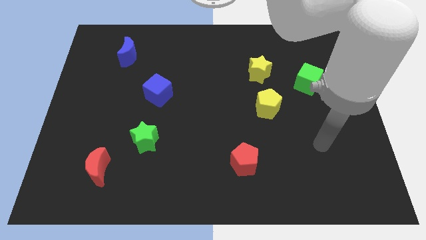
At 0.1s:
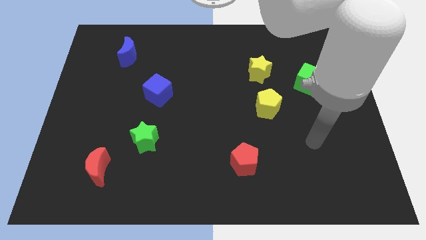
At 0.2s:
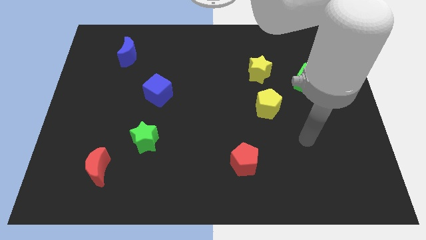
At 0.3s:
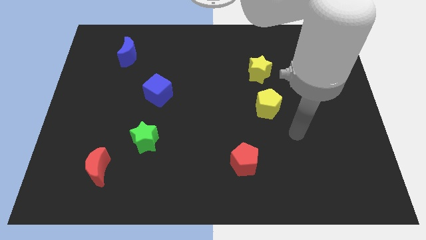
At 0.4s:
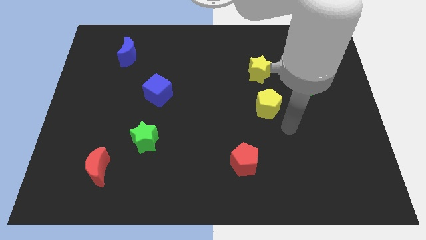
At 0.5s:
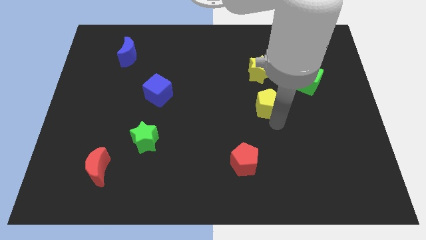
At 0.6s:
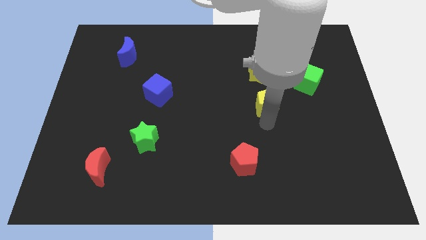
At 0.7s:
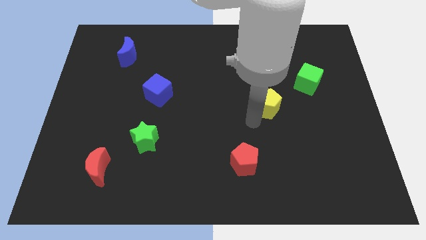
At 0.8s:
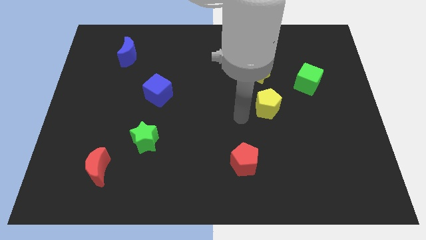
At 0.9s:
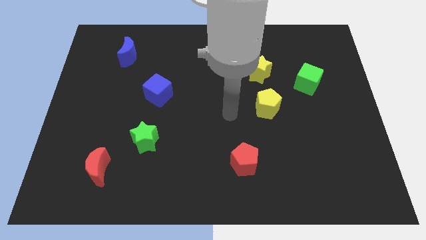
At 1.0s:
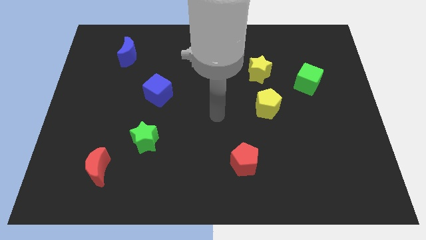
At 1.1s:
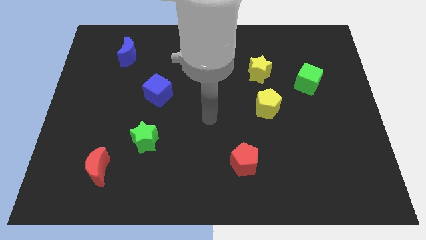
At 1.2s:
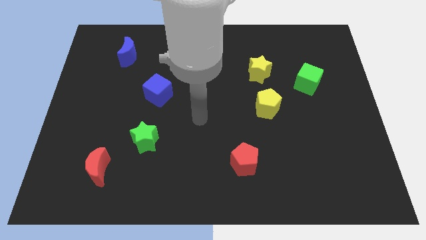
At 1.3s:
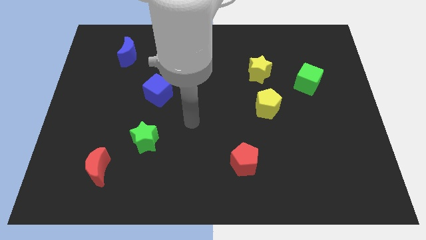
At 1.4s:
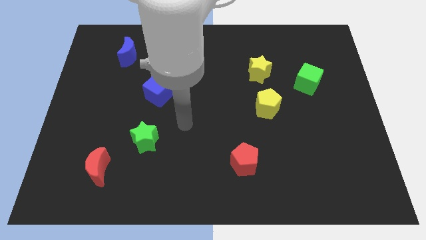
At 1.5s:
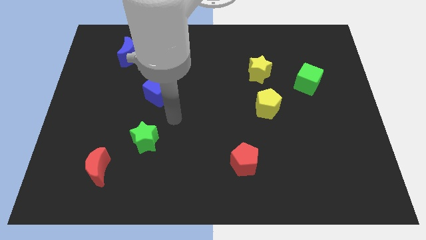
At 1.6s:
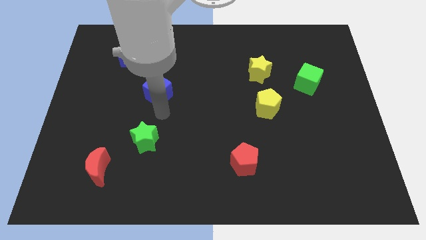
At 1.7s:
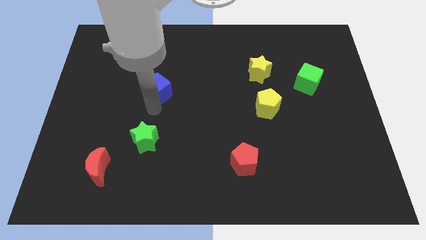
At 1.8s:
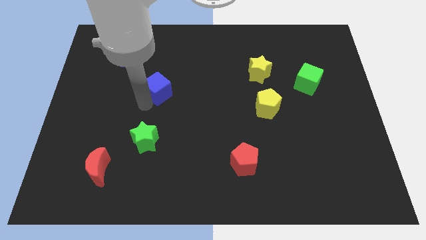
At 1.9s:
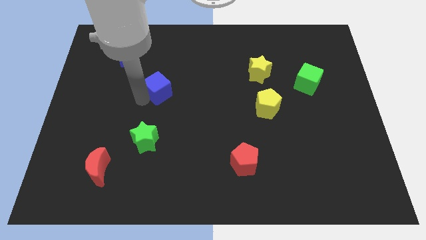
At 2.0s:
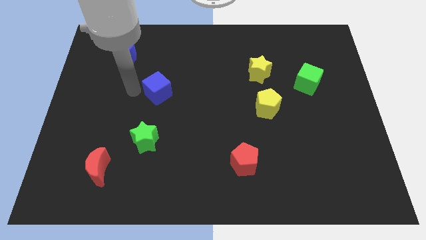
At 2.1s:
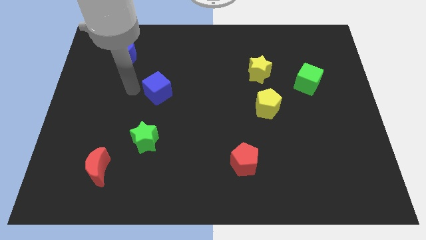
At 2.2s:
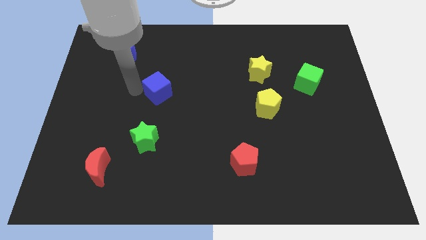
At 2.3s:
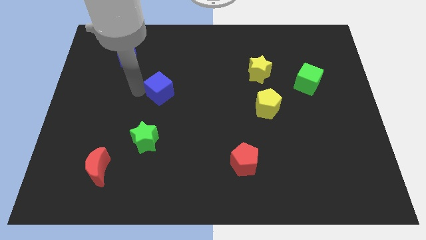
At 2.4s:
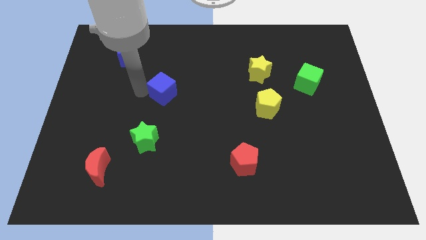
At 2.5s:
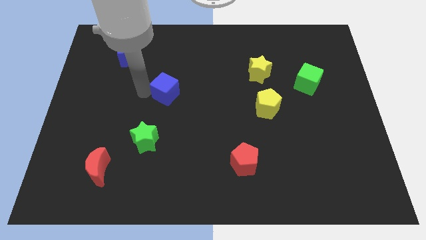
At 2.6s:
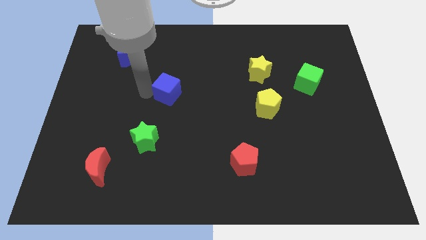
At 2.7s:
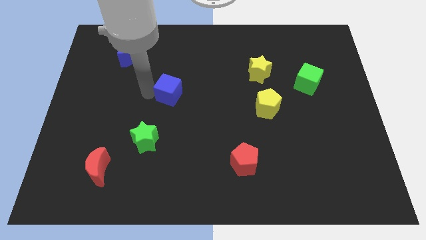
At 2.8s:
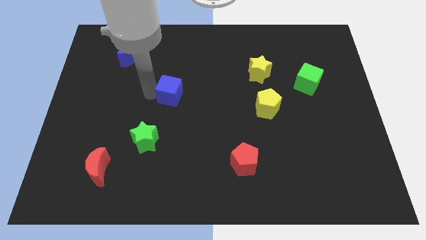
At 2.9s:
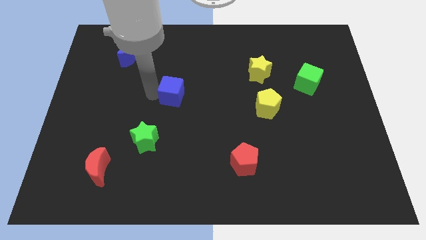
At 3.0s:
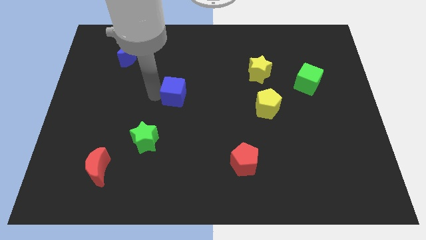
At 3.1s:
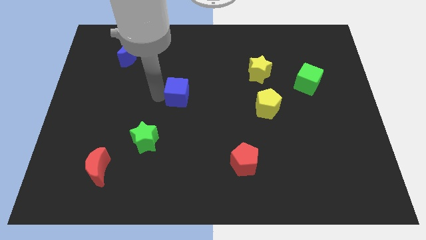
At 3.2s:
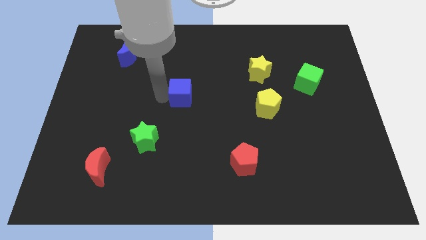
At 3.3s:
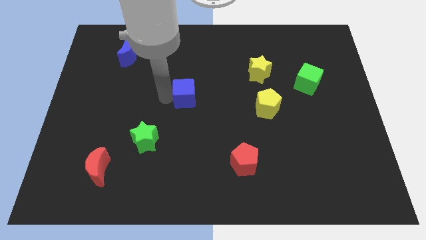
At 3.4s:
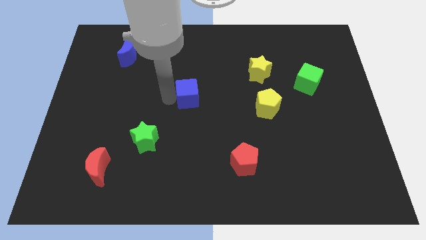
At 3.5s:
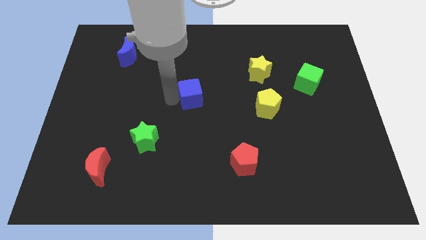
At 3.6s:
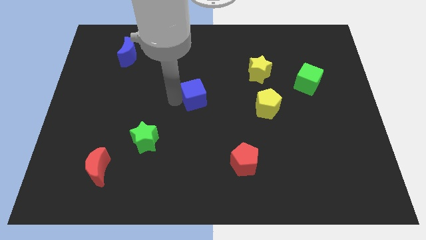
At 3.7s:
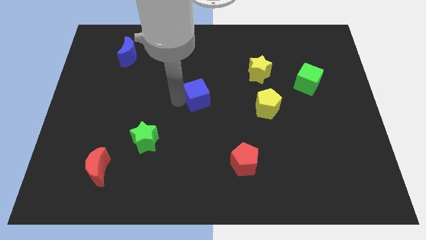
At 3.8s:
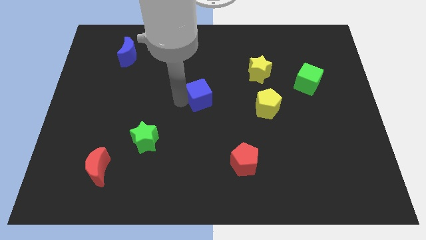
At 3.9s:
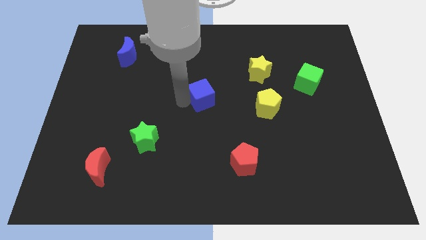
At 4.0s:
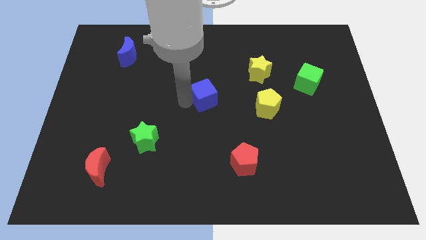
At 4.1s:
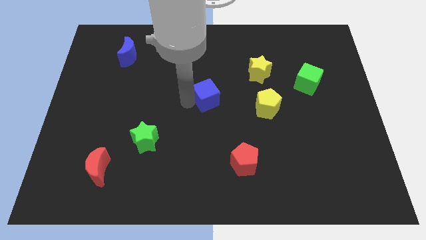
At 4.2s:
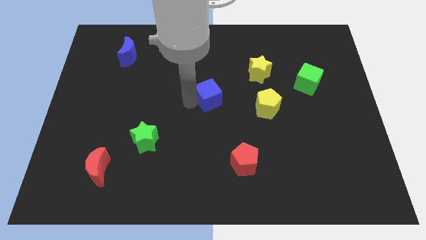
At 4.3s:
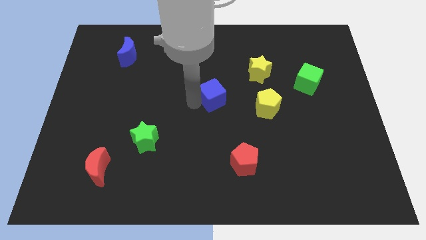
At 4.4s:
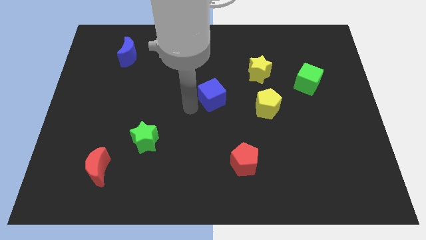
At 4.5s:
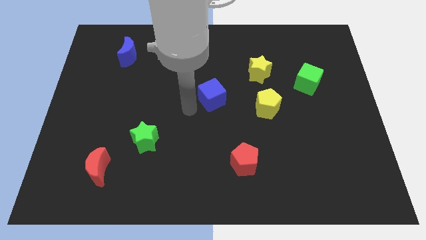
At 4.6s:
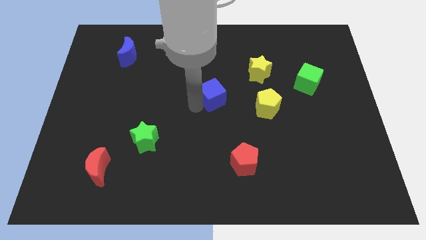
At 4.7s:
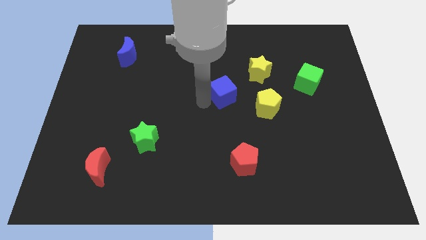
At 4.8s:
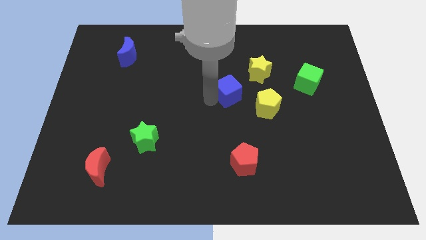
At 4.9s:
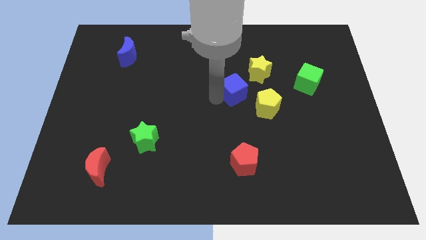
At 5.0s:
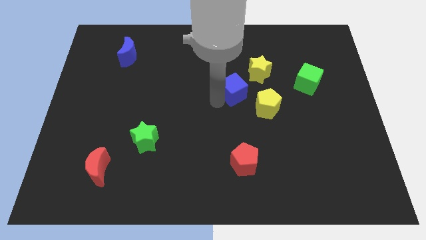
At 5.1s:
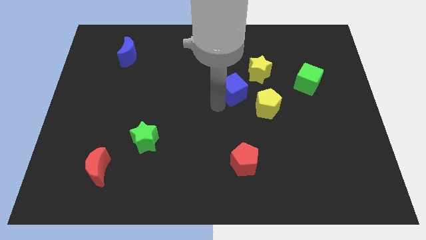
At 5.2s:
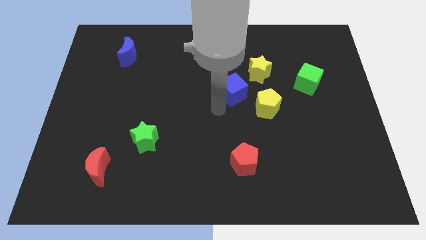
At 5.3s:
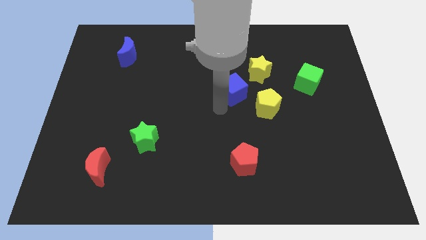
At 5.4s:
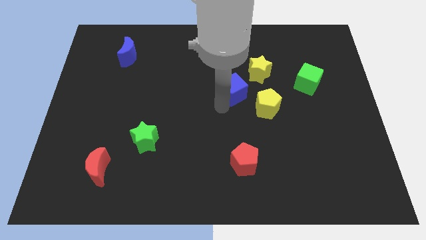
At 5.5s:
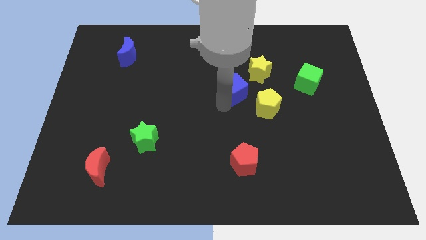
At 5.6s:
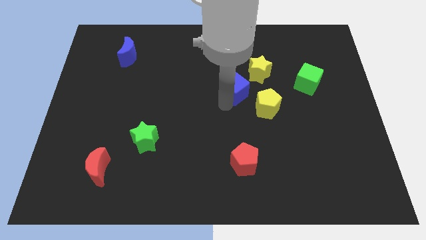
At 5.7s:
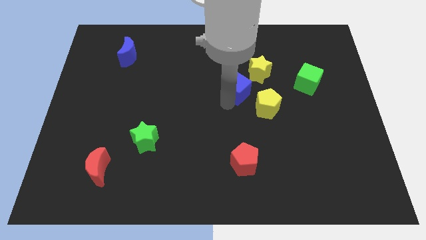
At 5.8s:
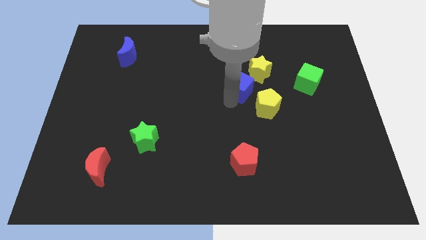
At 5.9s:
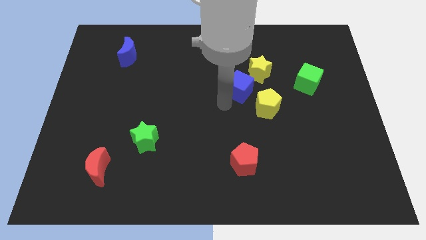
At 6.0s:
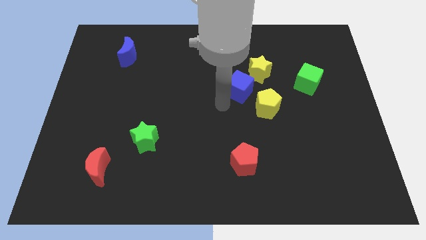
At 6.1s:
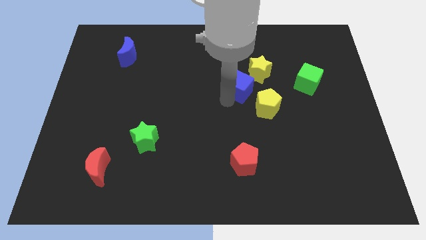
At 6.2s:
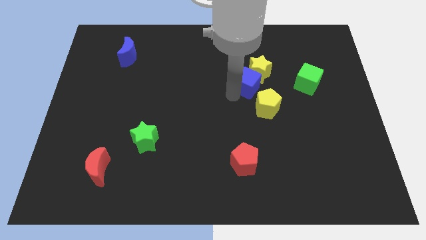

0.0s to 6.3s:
put the blue cube next to the yellow star

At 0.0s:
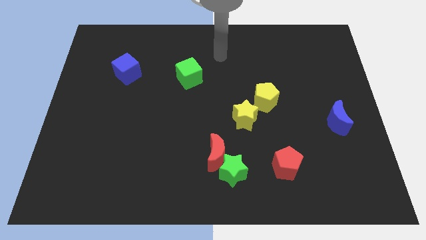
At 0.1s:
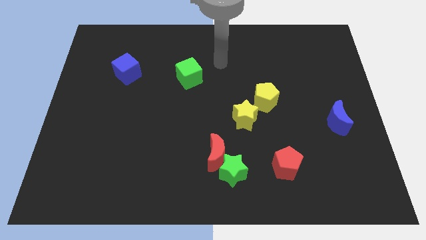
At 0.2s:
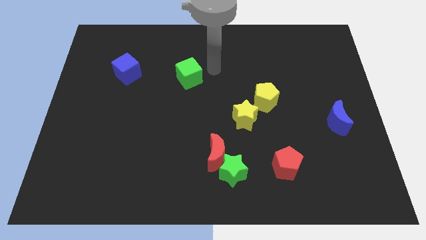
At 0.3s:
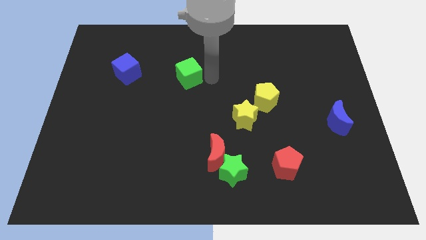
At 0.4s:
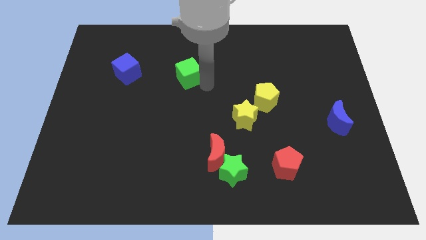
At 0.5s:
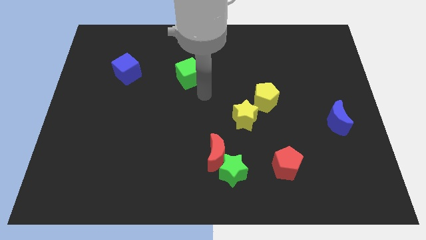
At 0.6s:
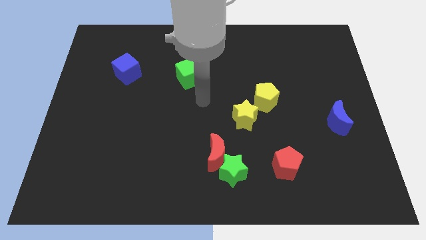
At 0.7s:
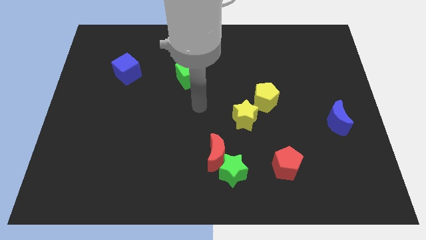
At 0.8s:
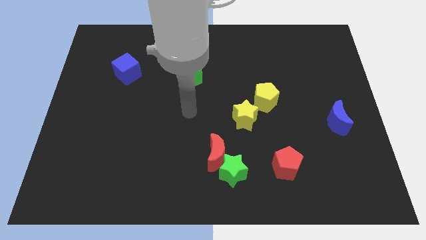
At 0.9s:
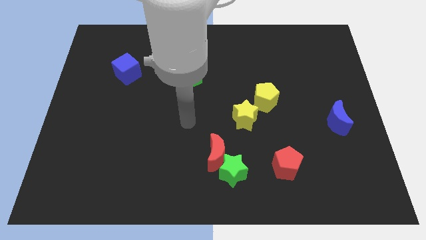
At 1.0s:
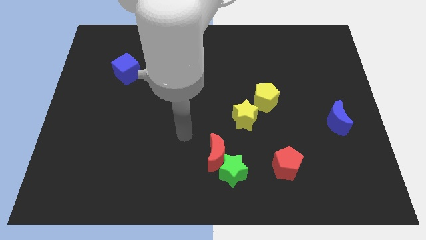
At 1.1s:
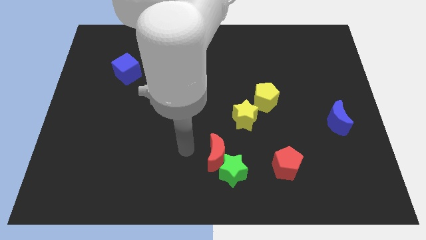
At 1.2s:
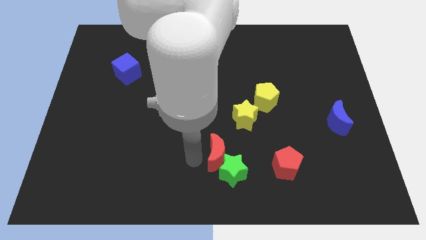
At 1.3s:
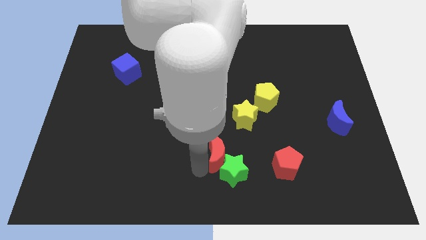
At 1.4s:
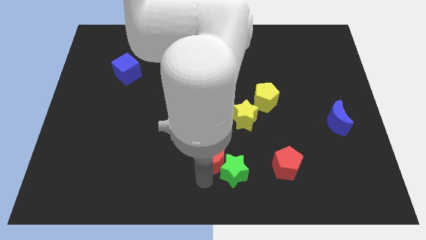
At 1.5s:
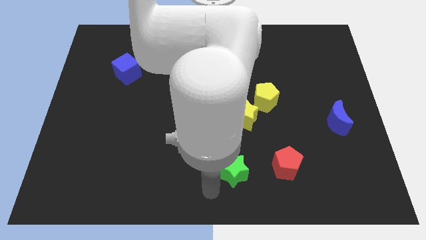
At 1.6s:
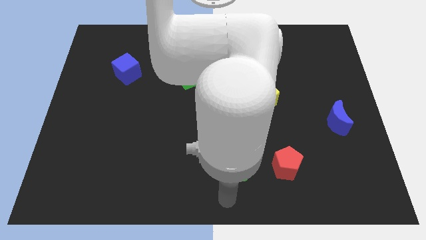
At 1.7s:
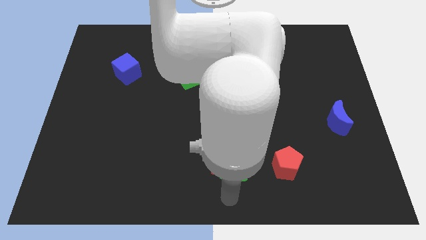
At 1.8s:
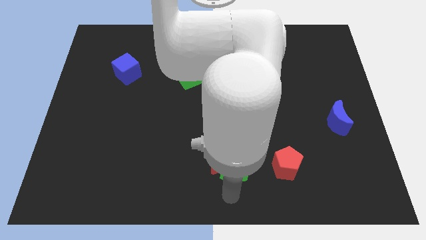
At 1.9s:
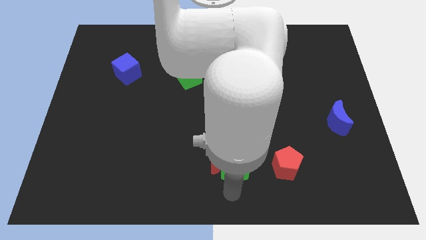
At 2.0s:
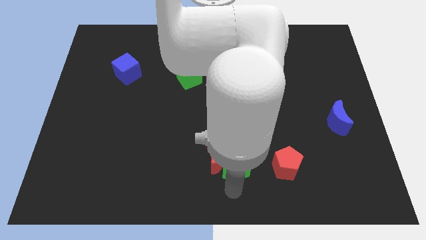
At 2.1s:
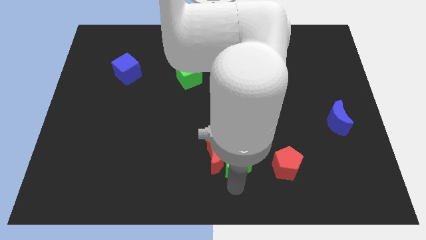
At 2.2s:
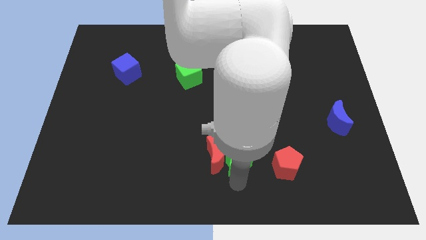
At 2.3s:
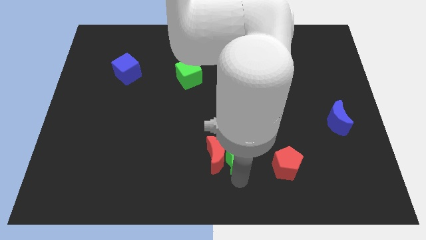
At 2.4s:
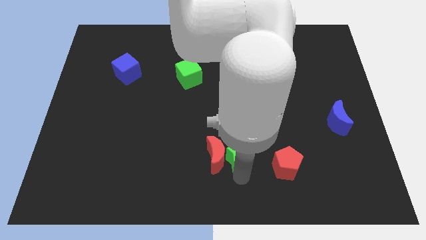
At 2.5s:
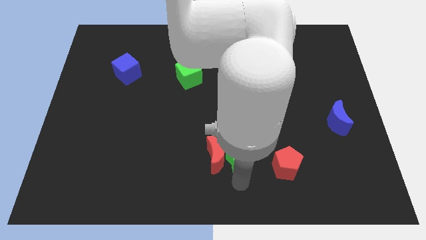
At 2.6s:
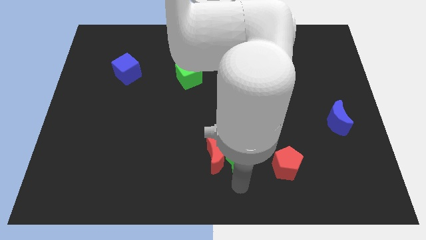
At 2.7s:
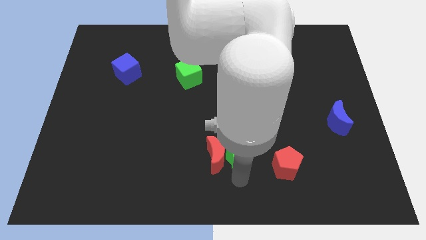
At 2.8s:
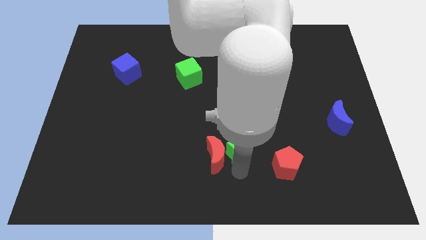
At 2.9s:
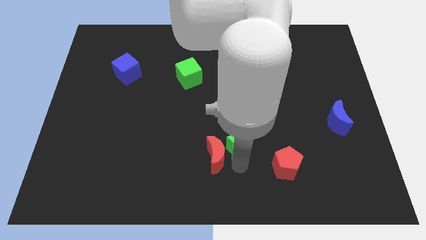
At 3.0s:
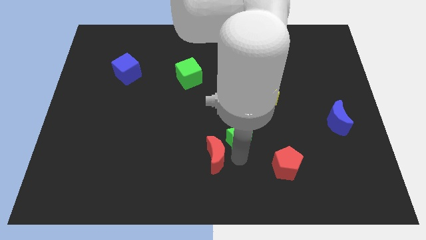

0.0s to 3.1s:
put the green star to the yellow star
